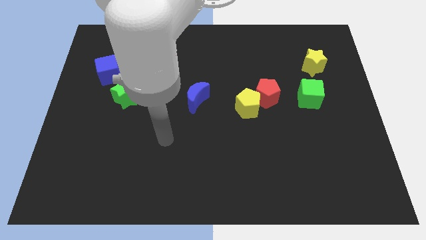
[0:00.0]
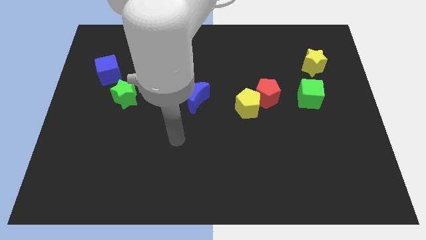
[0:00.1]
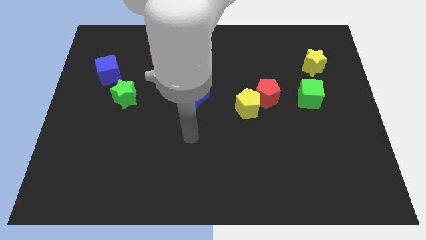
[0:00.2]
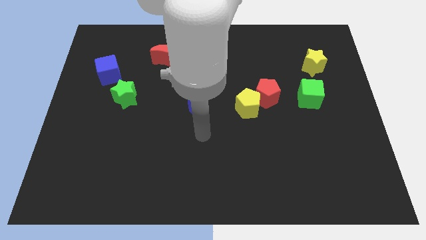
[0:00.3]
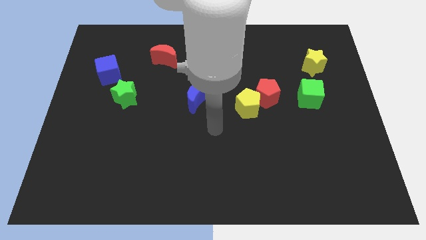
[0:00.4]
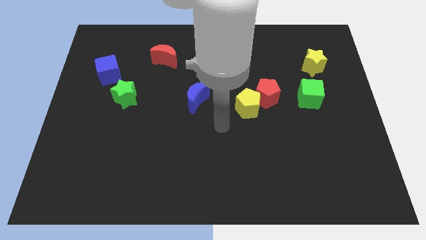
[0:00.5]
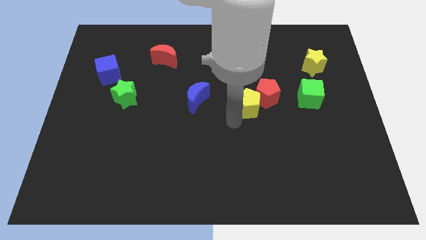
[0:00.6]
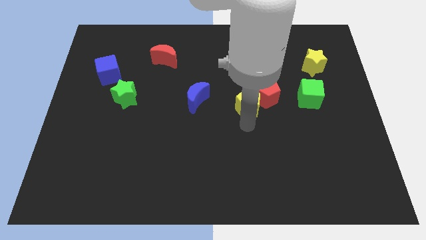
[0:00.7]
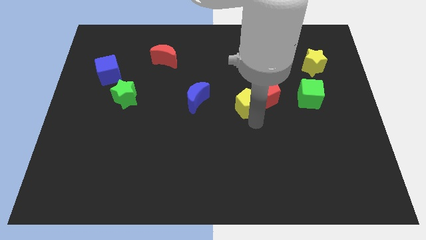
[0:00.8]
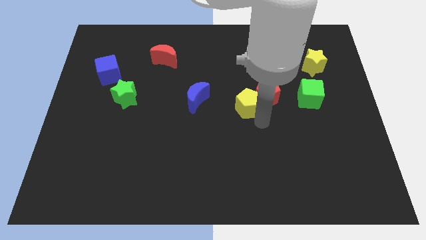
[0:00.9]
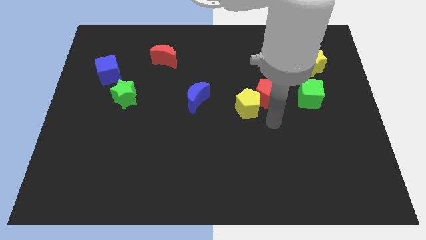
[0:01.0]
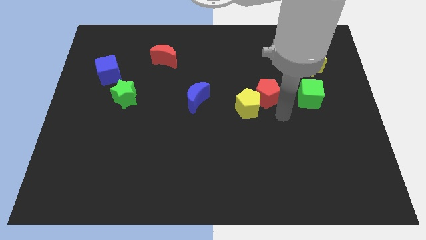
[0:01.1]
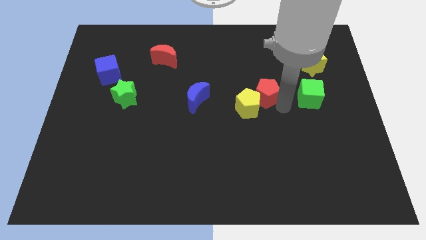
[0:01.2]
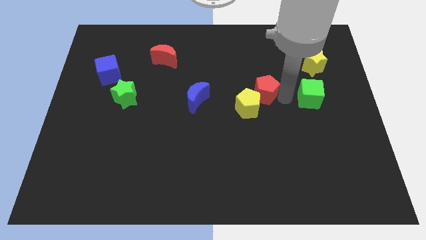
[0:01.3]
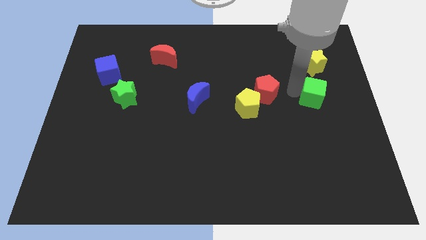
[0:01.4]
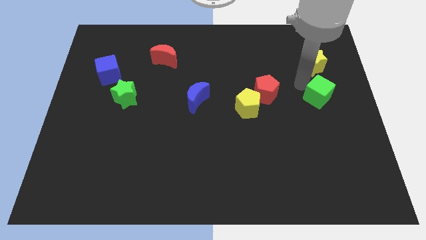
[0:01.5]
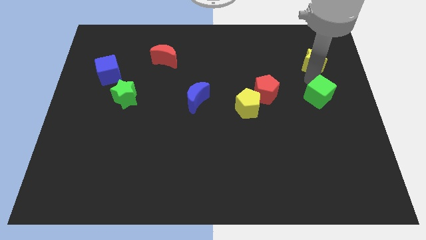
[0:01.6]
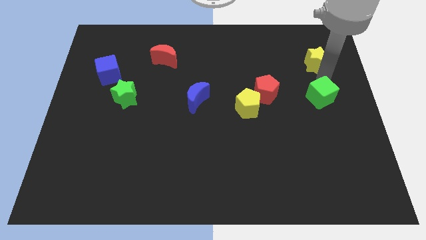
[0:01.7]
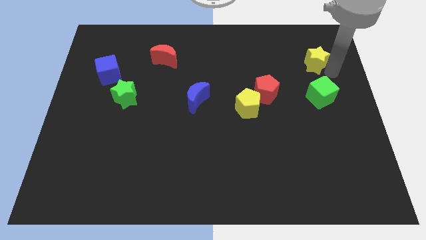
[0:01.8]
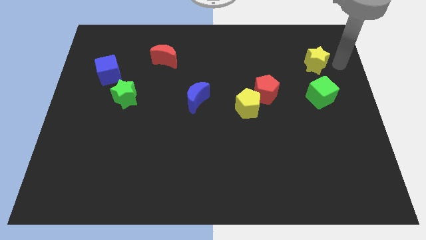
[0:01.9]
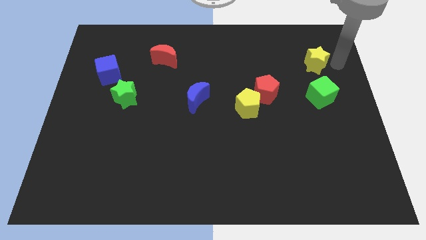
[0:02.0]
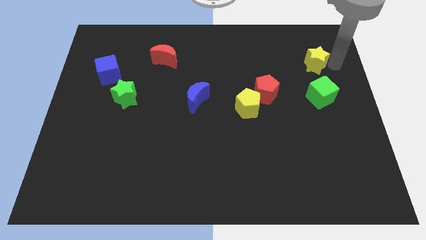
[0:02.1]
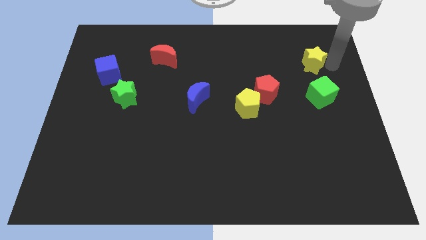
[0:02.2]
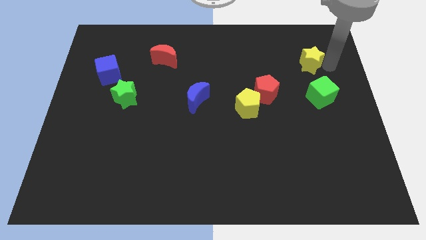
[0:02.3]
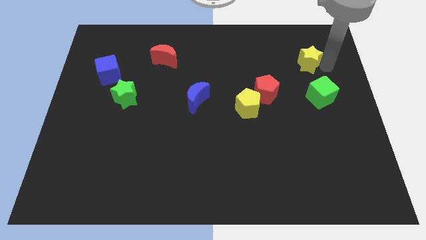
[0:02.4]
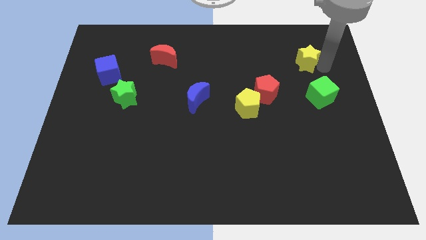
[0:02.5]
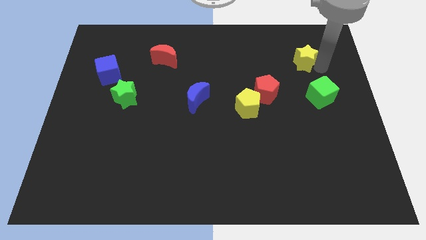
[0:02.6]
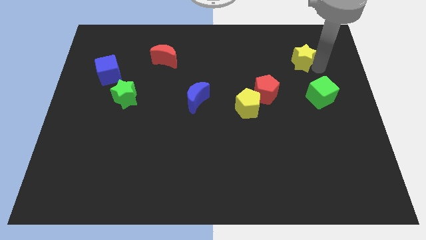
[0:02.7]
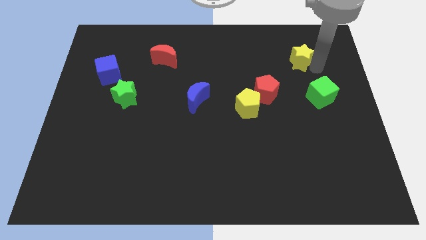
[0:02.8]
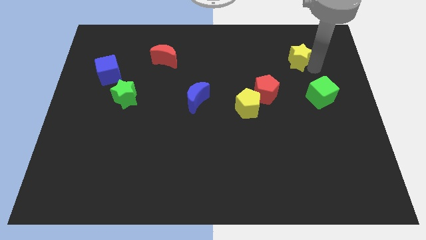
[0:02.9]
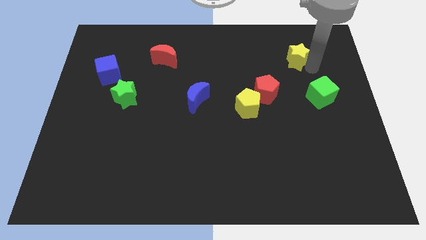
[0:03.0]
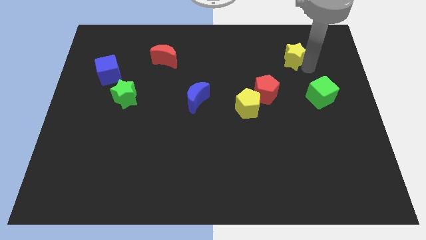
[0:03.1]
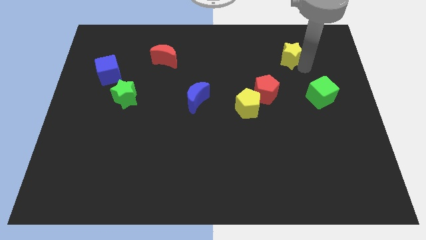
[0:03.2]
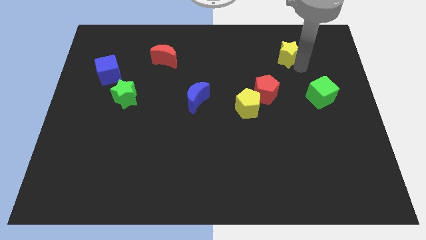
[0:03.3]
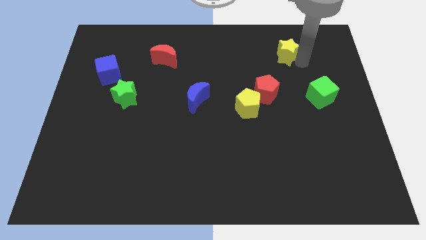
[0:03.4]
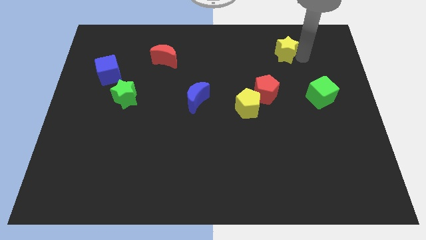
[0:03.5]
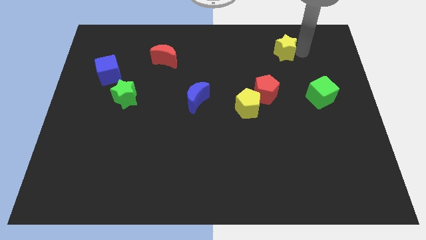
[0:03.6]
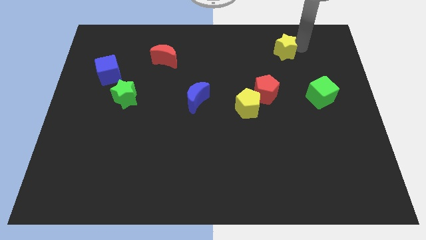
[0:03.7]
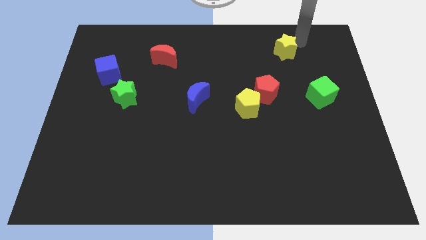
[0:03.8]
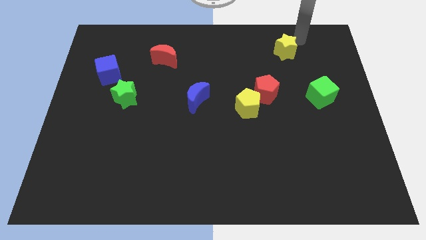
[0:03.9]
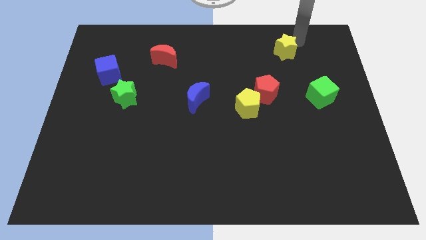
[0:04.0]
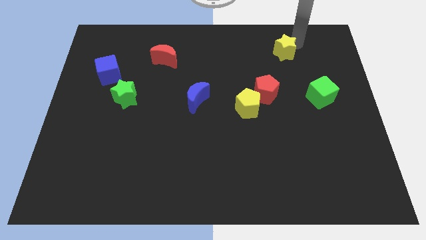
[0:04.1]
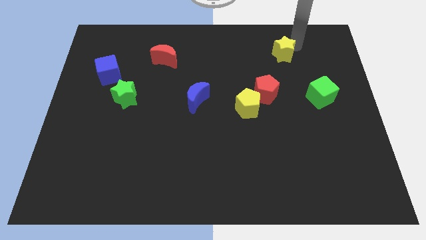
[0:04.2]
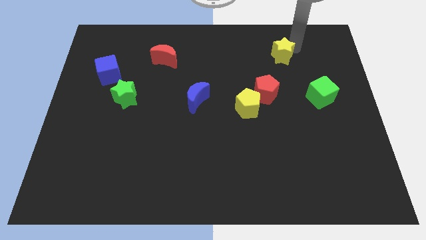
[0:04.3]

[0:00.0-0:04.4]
move the yellow star left a little bit

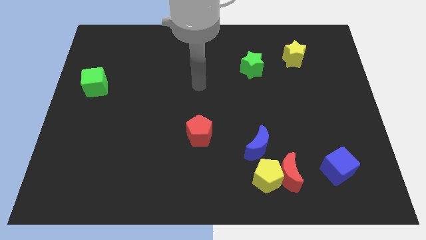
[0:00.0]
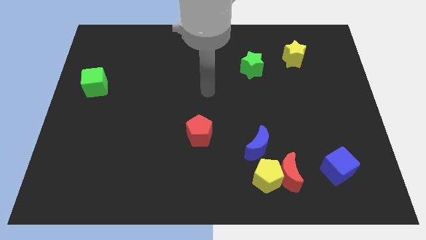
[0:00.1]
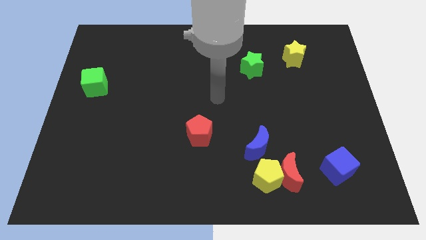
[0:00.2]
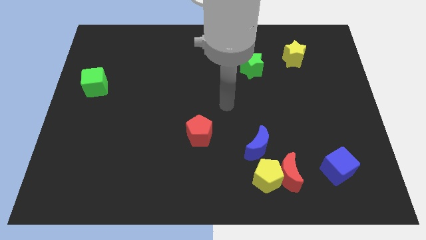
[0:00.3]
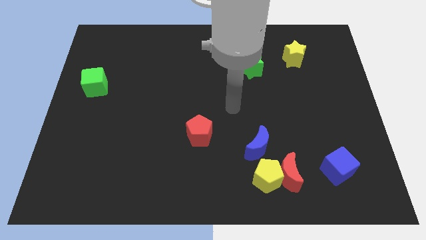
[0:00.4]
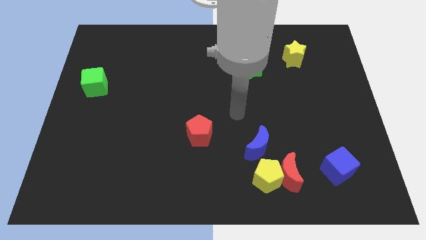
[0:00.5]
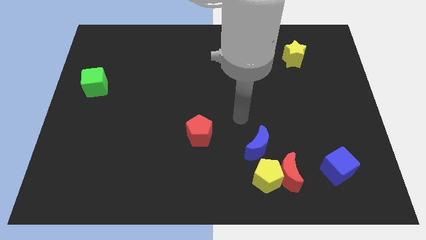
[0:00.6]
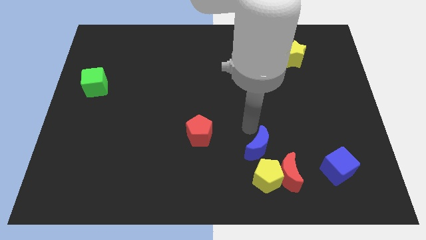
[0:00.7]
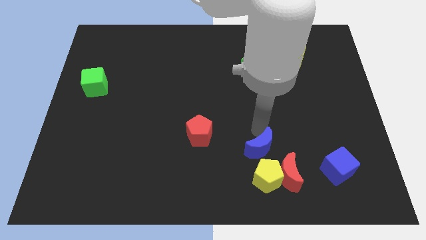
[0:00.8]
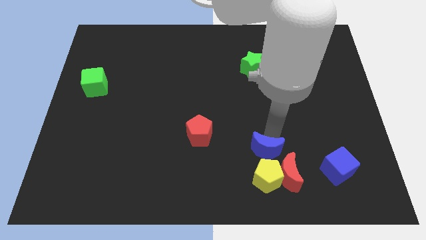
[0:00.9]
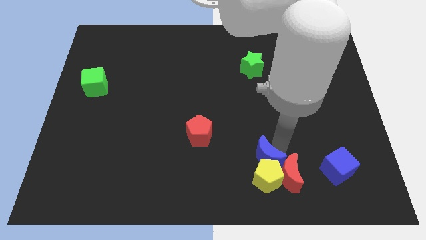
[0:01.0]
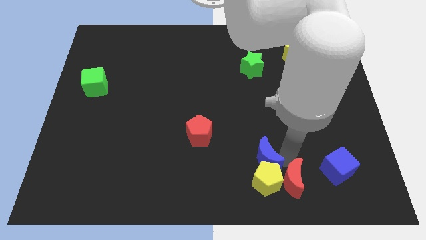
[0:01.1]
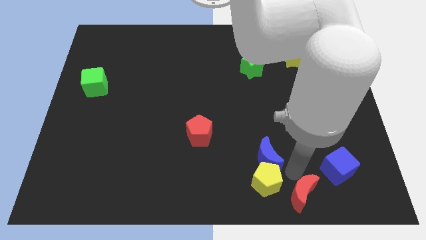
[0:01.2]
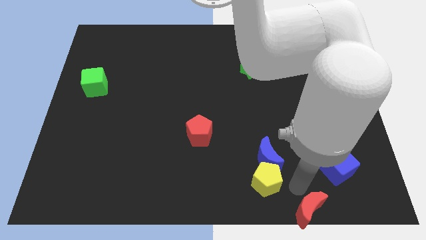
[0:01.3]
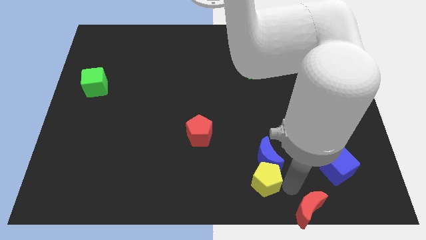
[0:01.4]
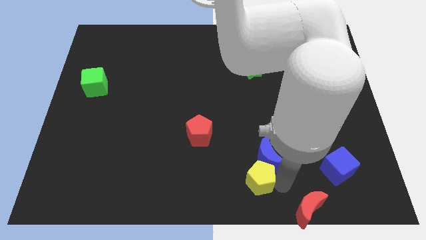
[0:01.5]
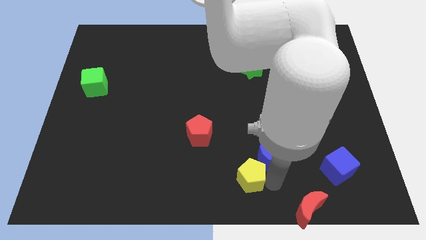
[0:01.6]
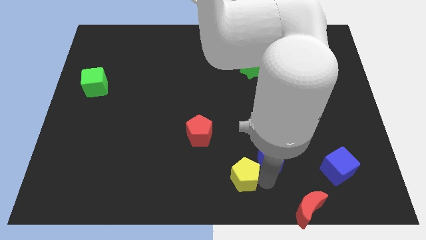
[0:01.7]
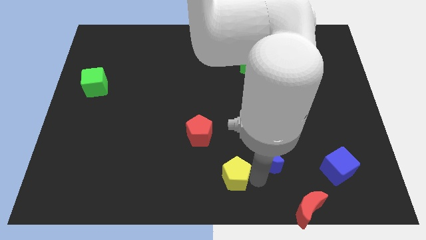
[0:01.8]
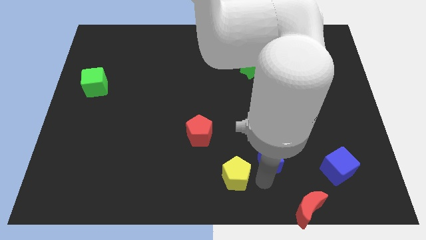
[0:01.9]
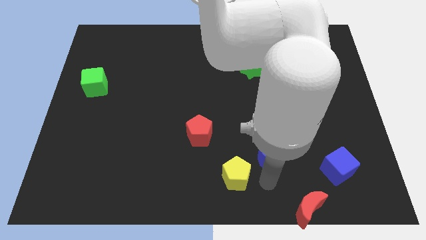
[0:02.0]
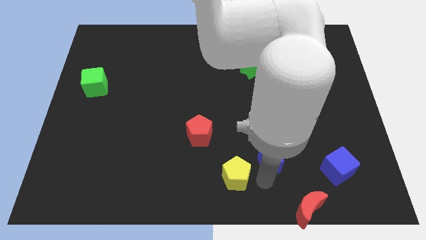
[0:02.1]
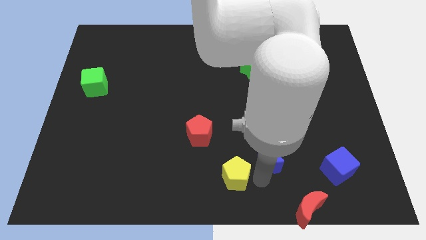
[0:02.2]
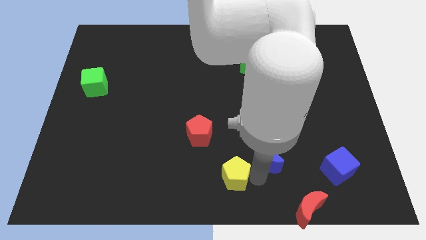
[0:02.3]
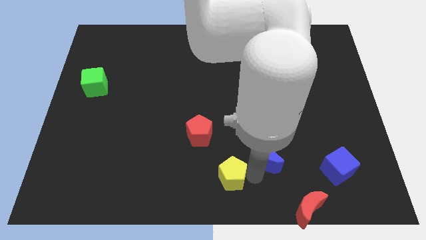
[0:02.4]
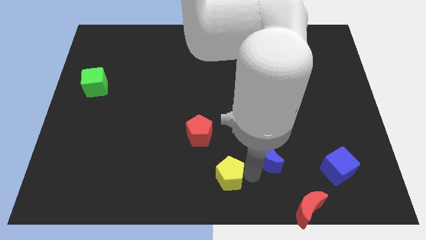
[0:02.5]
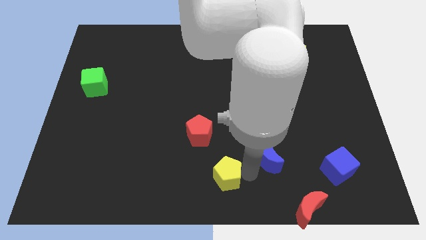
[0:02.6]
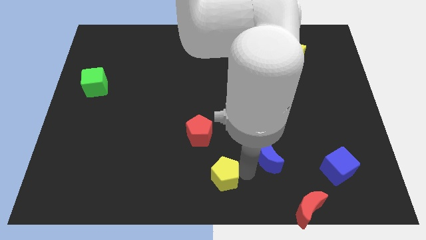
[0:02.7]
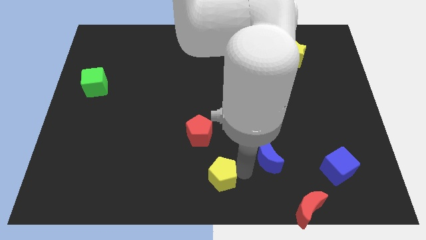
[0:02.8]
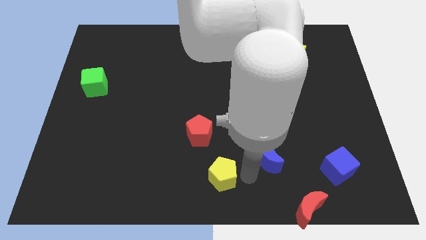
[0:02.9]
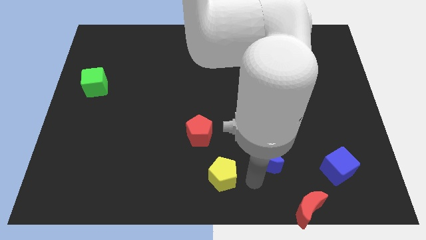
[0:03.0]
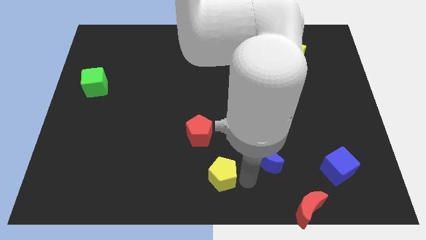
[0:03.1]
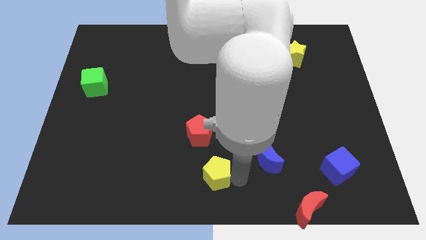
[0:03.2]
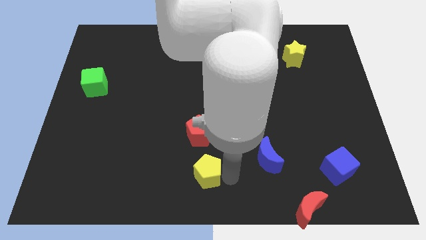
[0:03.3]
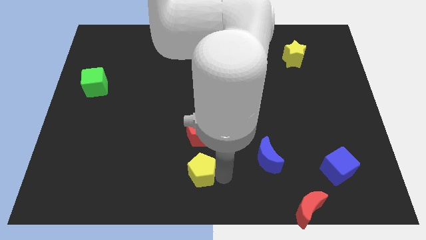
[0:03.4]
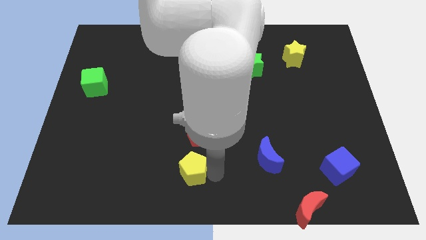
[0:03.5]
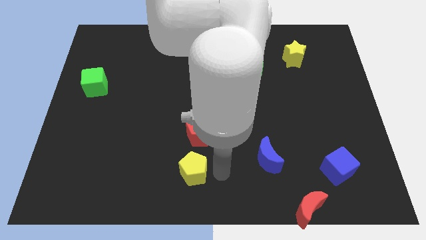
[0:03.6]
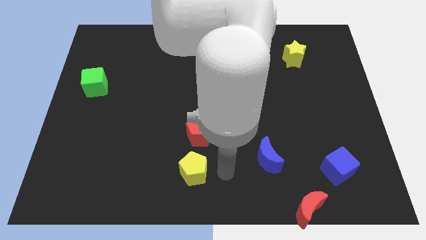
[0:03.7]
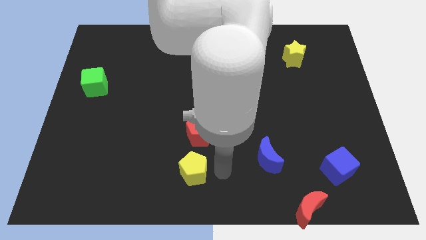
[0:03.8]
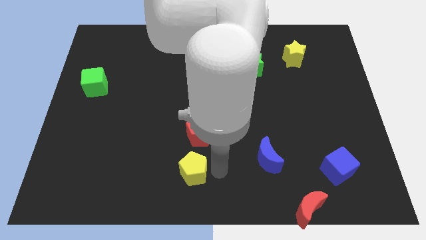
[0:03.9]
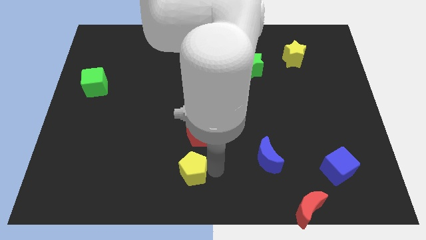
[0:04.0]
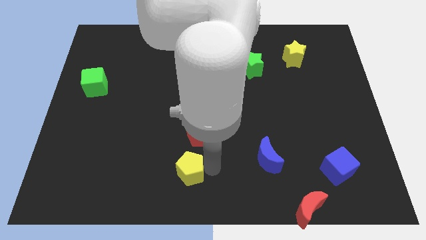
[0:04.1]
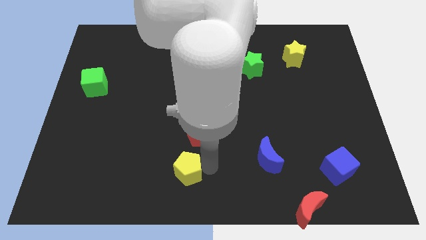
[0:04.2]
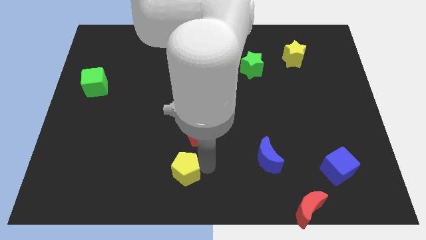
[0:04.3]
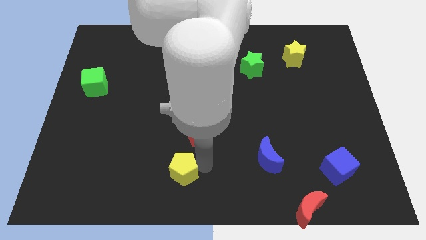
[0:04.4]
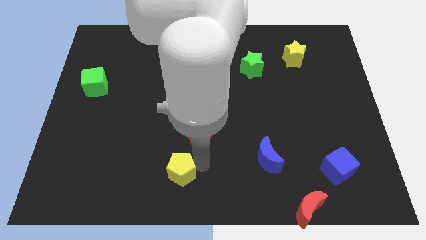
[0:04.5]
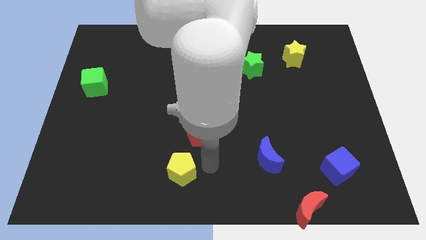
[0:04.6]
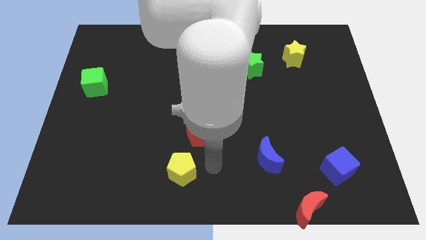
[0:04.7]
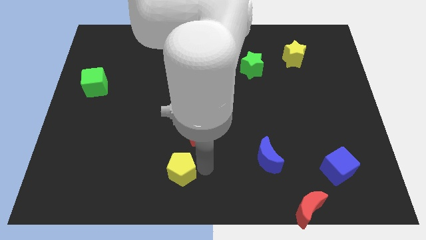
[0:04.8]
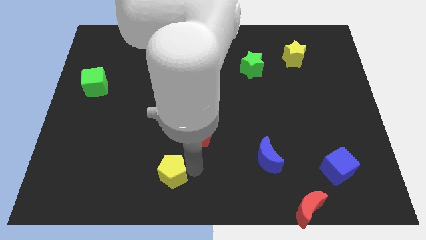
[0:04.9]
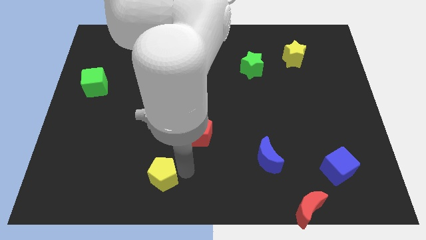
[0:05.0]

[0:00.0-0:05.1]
slide the yellow pentagon to the left
